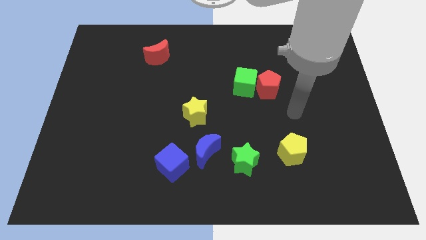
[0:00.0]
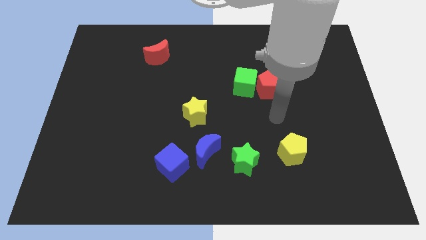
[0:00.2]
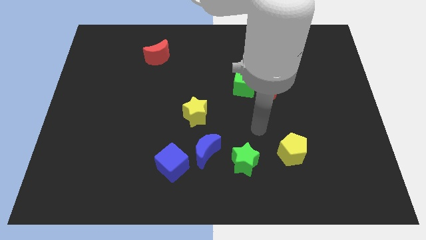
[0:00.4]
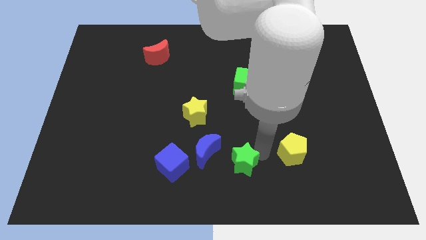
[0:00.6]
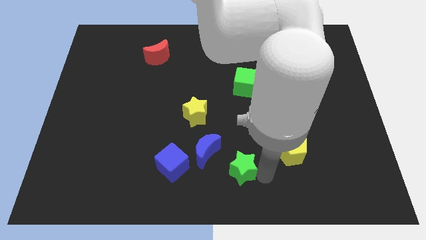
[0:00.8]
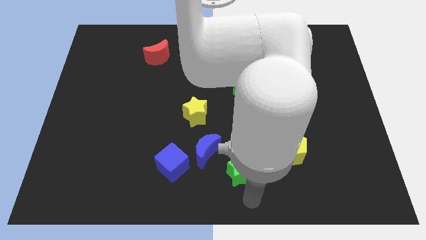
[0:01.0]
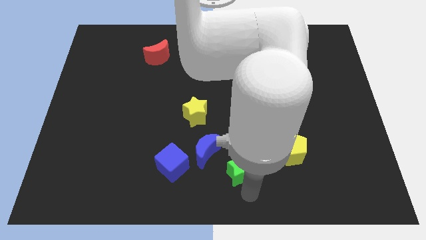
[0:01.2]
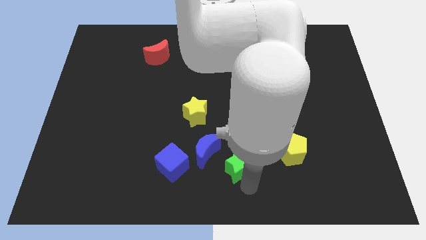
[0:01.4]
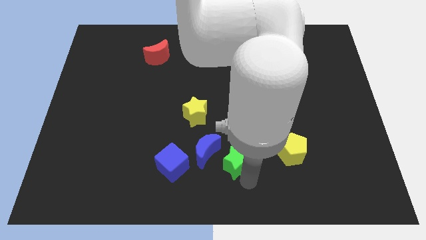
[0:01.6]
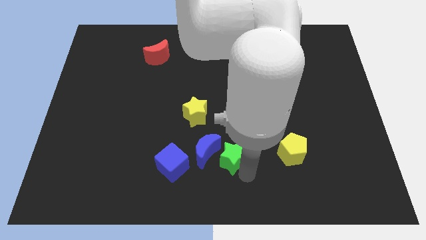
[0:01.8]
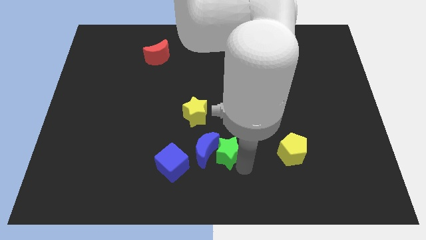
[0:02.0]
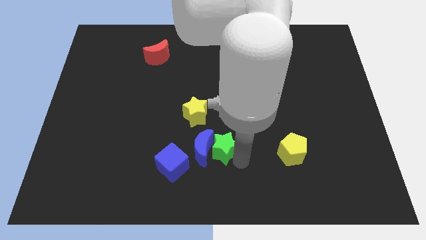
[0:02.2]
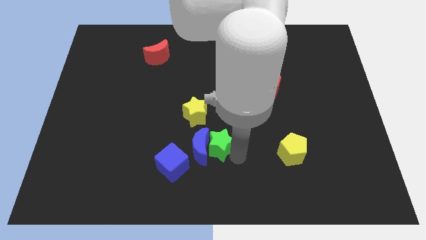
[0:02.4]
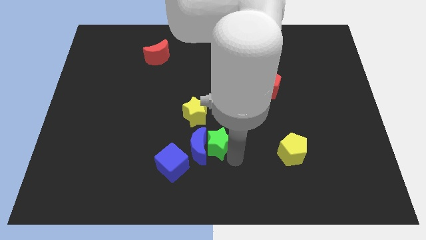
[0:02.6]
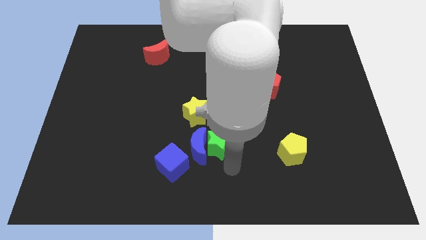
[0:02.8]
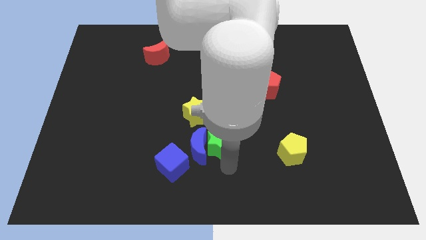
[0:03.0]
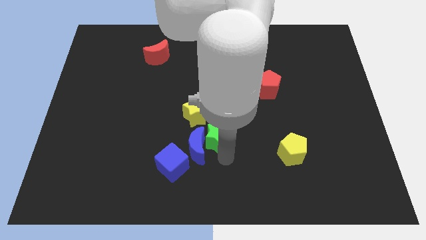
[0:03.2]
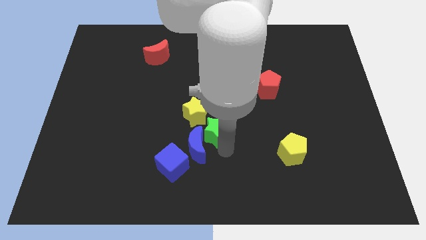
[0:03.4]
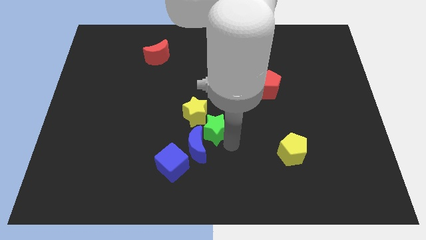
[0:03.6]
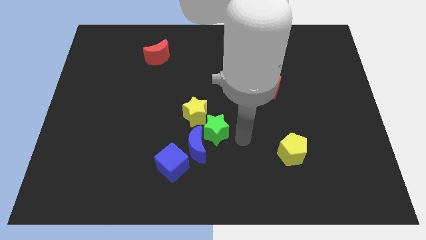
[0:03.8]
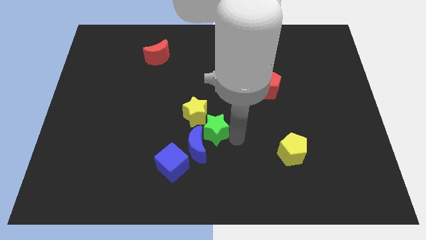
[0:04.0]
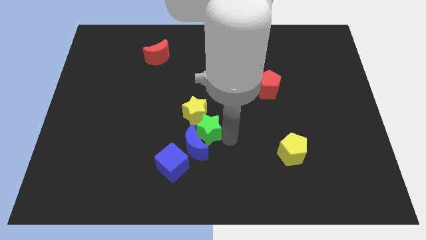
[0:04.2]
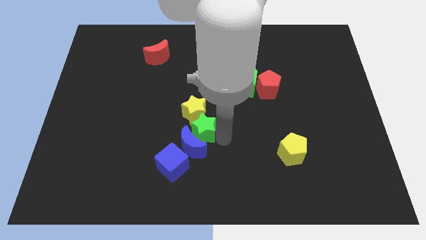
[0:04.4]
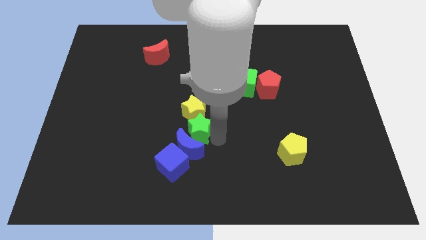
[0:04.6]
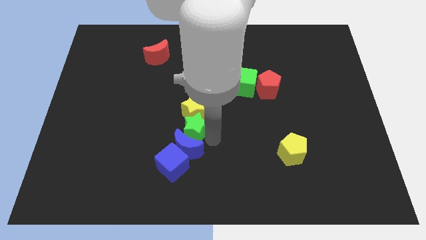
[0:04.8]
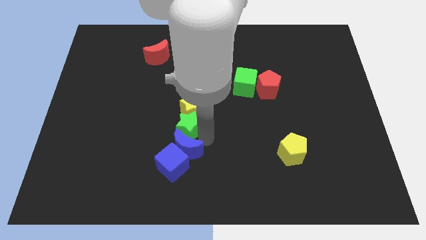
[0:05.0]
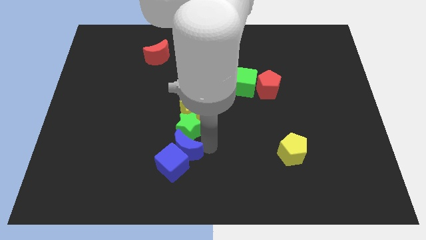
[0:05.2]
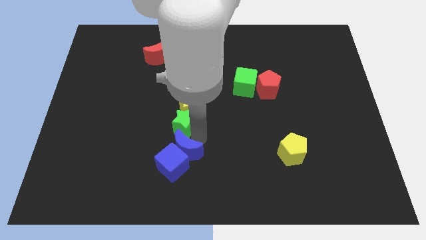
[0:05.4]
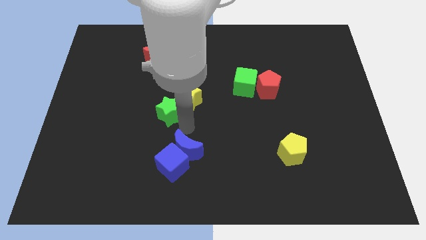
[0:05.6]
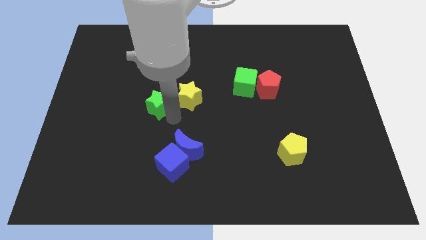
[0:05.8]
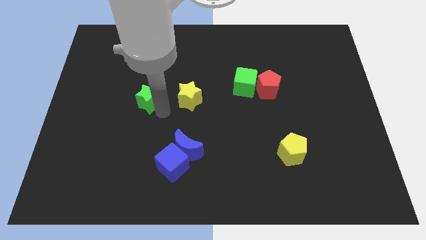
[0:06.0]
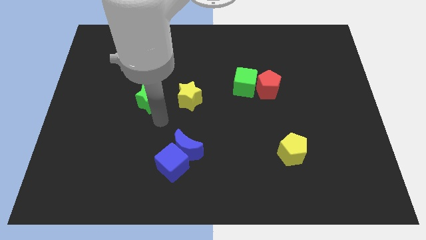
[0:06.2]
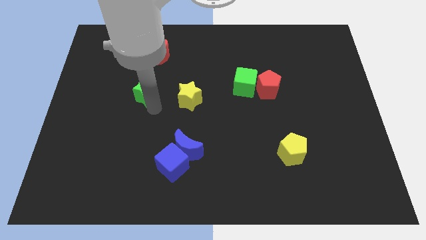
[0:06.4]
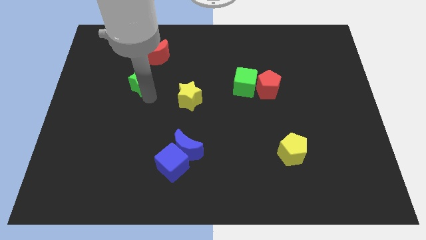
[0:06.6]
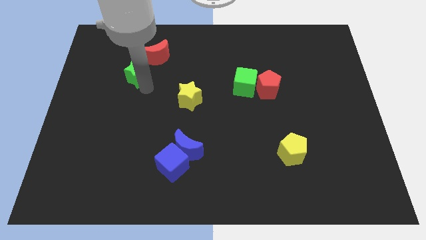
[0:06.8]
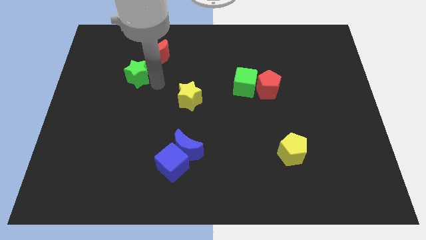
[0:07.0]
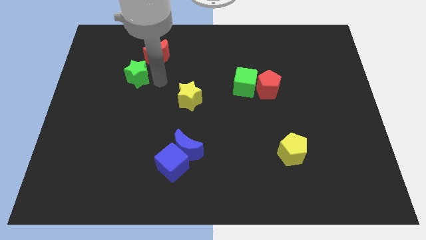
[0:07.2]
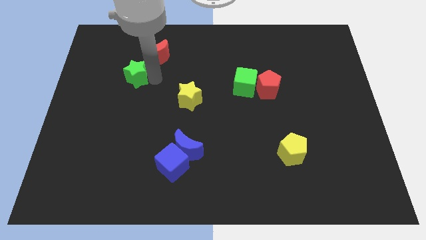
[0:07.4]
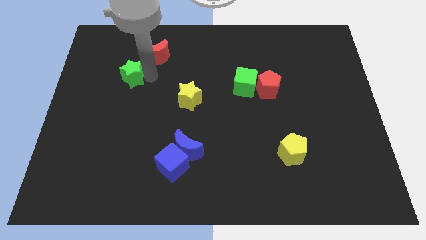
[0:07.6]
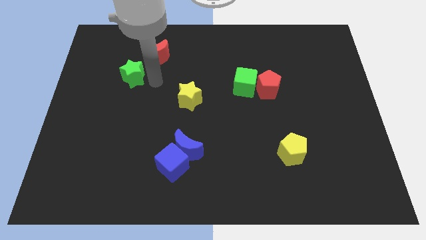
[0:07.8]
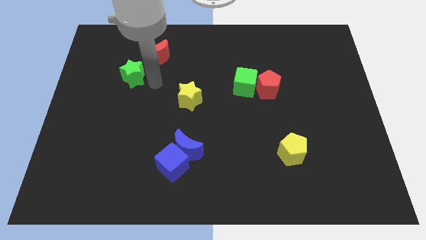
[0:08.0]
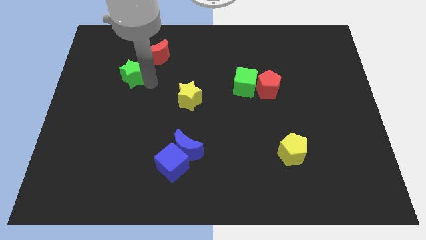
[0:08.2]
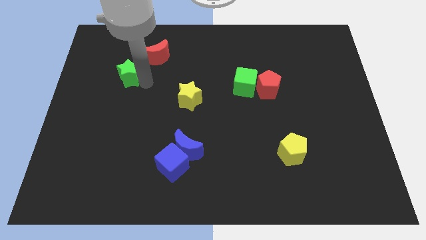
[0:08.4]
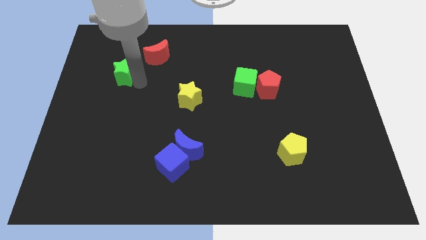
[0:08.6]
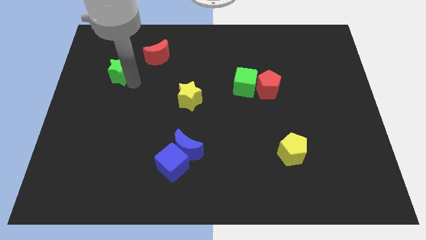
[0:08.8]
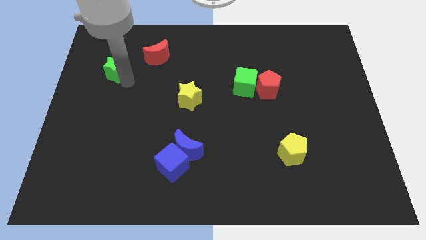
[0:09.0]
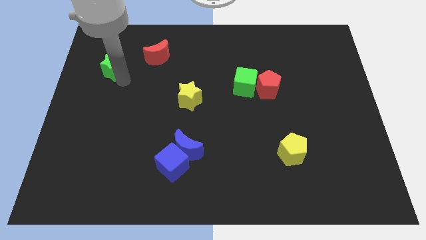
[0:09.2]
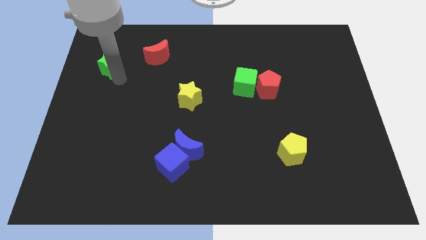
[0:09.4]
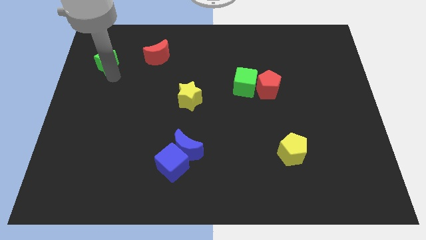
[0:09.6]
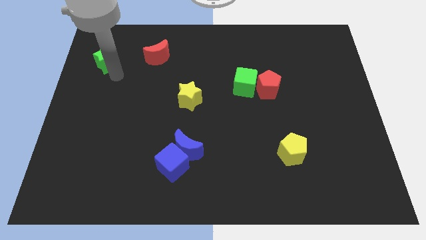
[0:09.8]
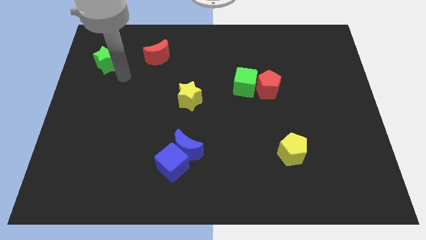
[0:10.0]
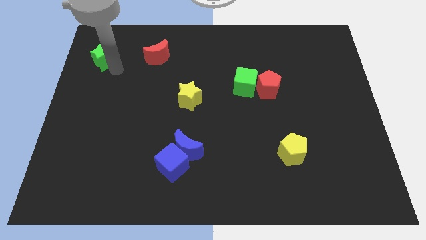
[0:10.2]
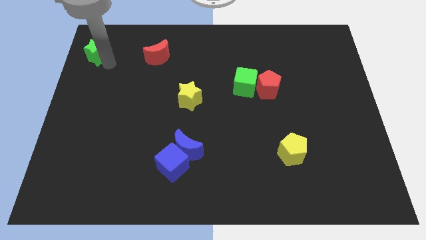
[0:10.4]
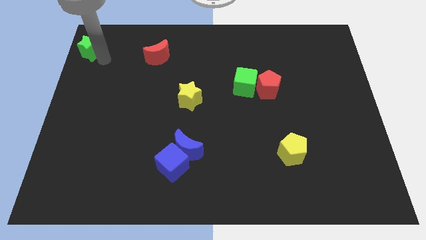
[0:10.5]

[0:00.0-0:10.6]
put the green star to the upper left corner
